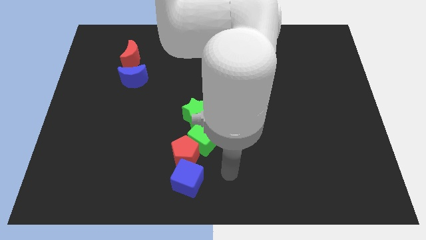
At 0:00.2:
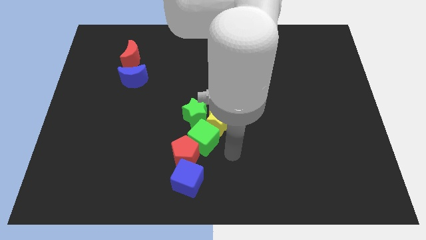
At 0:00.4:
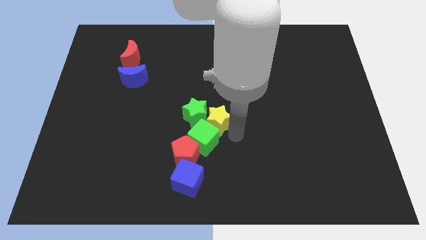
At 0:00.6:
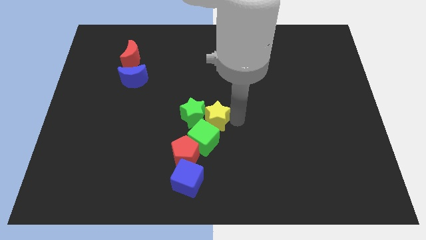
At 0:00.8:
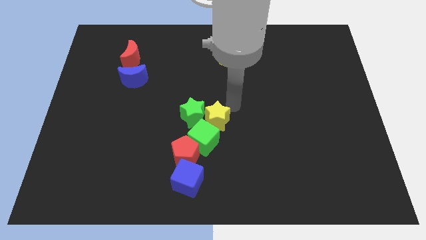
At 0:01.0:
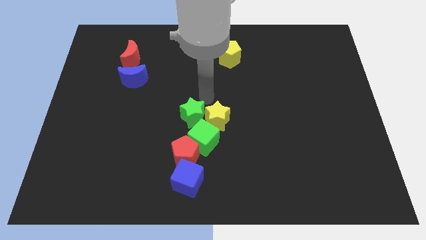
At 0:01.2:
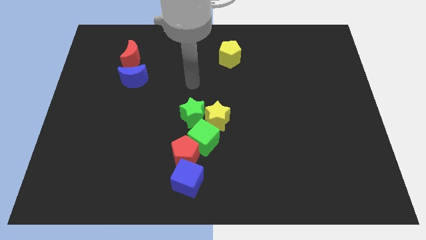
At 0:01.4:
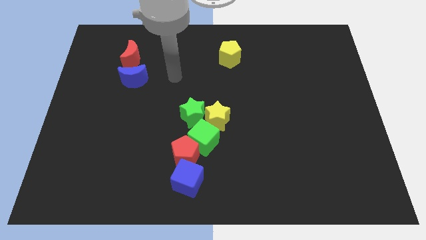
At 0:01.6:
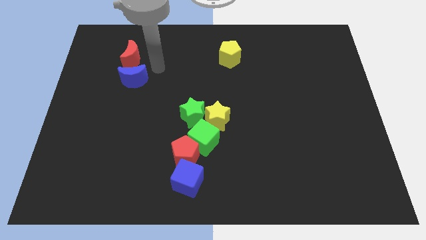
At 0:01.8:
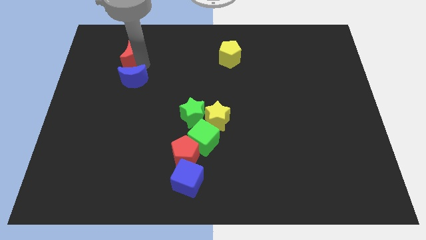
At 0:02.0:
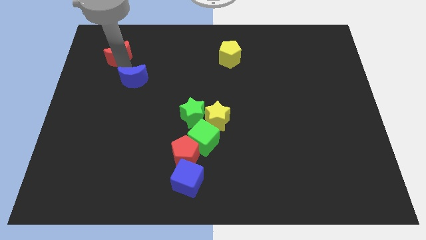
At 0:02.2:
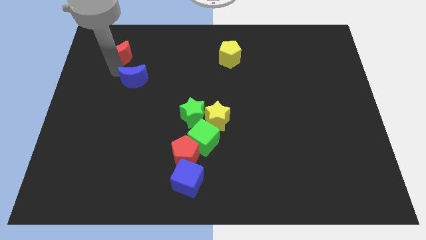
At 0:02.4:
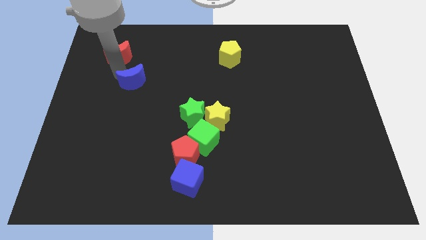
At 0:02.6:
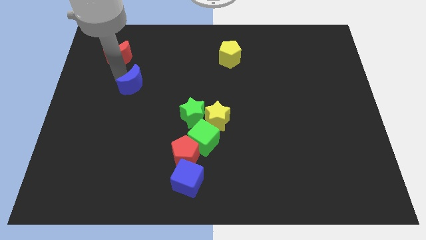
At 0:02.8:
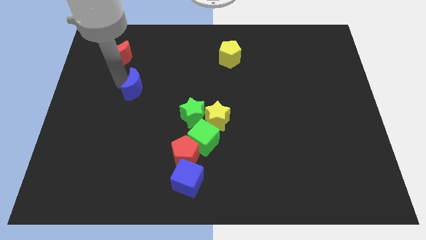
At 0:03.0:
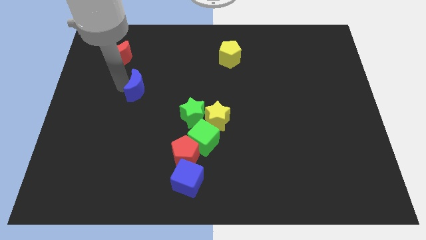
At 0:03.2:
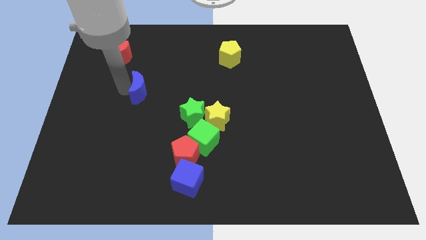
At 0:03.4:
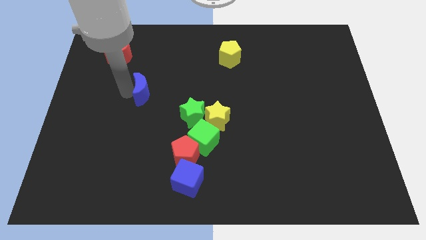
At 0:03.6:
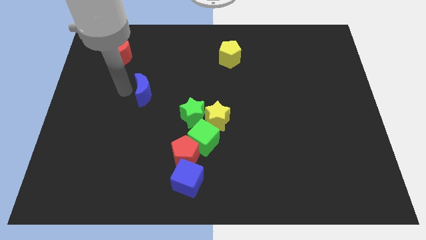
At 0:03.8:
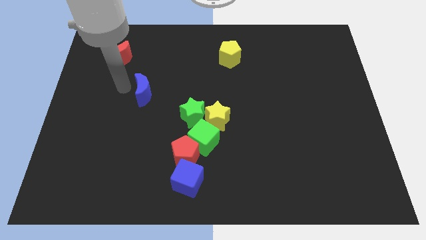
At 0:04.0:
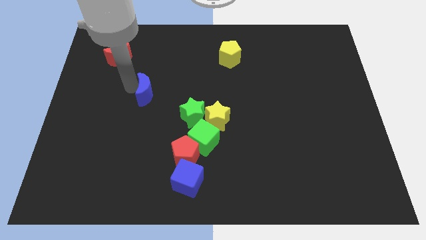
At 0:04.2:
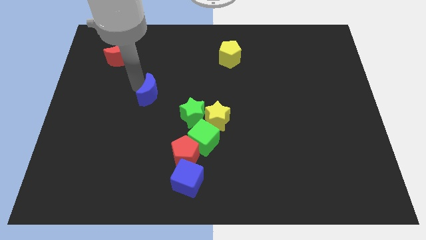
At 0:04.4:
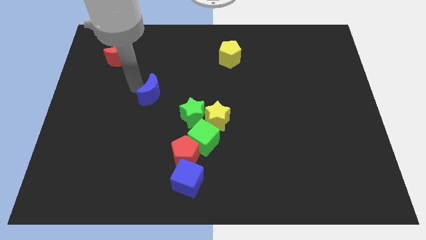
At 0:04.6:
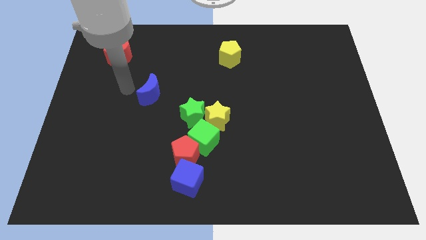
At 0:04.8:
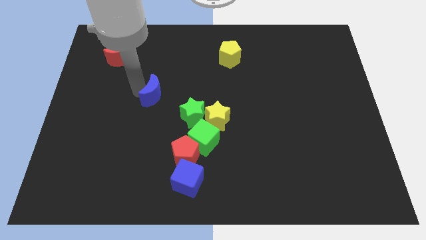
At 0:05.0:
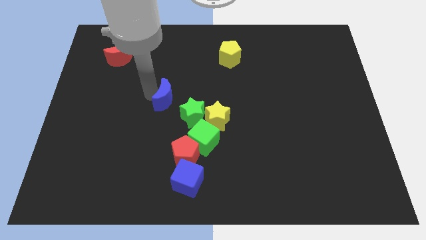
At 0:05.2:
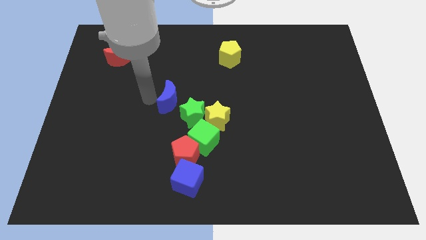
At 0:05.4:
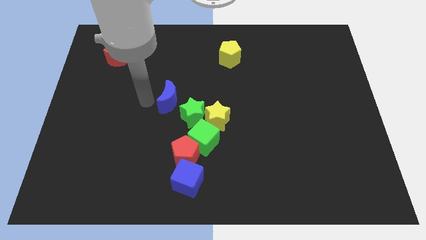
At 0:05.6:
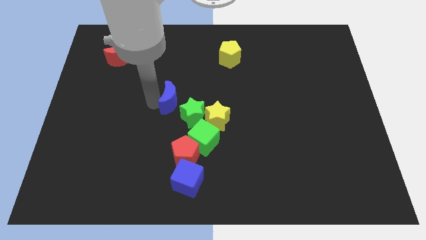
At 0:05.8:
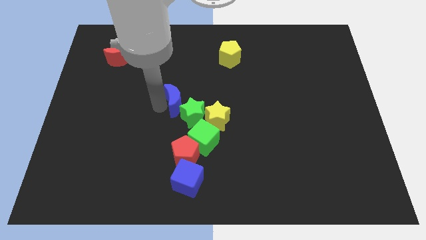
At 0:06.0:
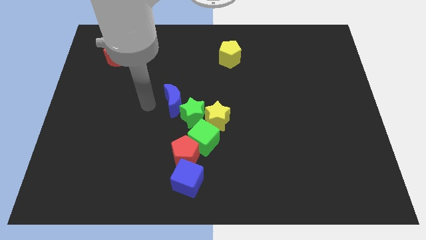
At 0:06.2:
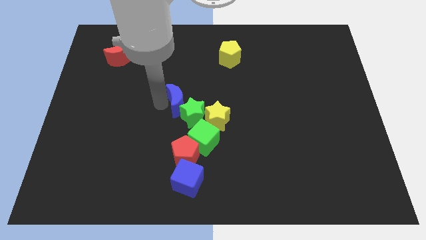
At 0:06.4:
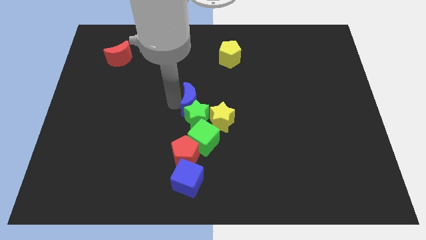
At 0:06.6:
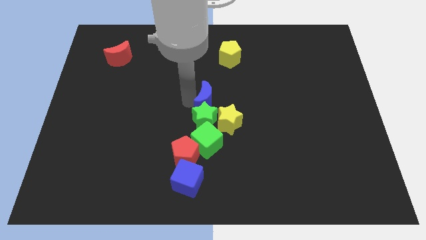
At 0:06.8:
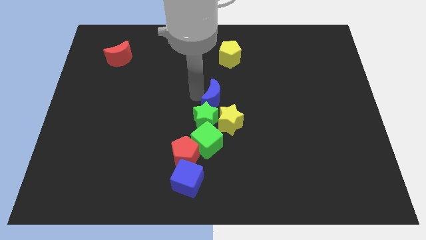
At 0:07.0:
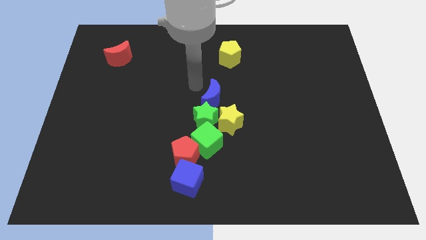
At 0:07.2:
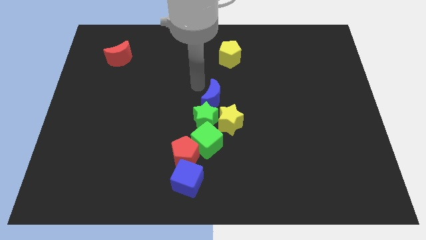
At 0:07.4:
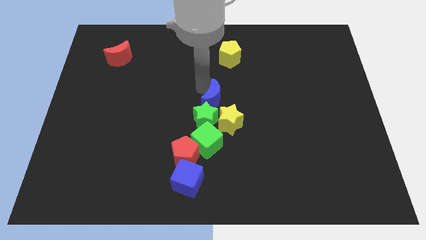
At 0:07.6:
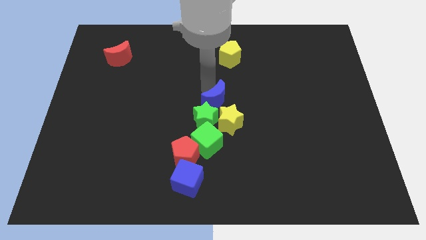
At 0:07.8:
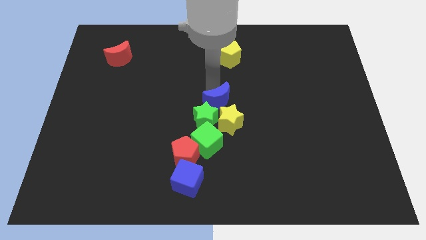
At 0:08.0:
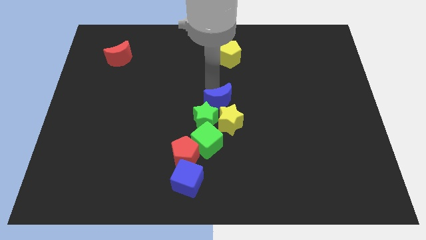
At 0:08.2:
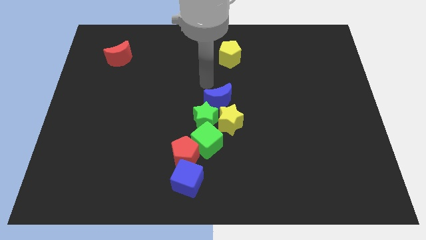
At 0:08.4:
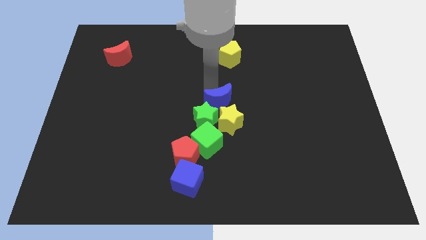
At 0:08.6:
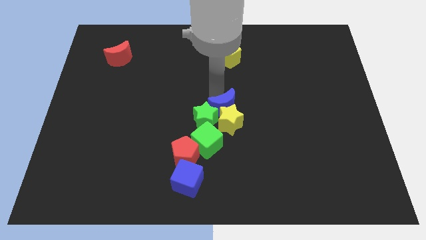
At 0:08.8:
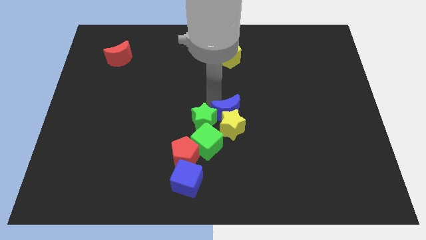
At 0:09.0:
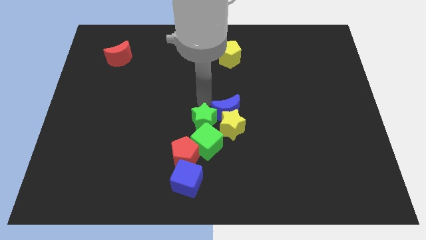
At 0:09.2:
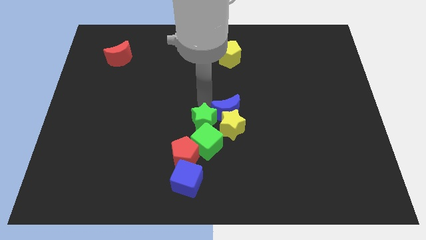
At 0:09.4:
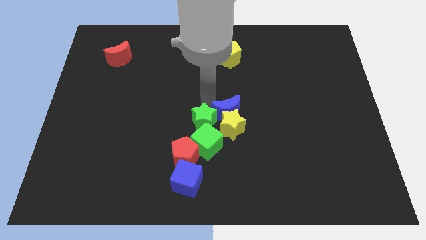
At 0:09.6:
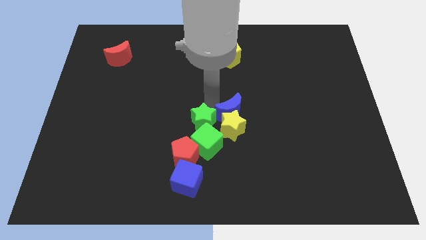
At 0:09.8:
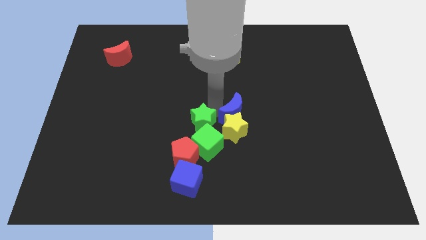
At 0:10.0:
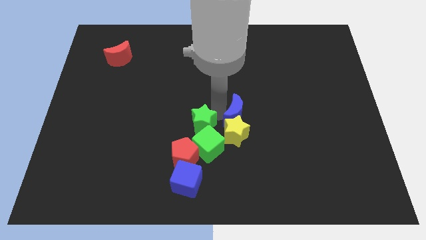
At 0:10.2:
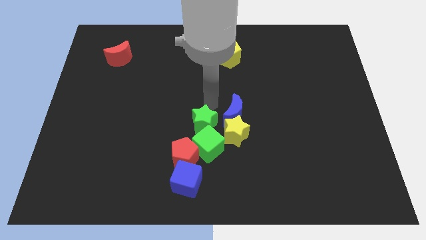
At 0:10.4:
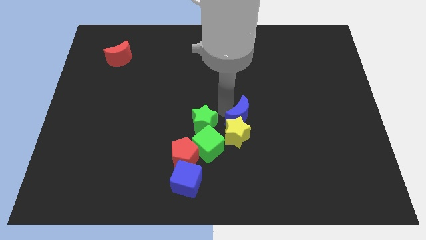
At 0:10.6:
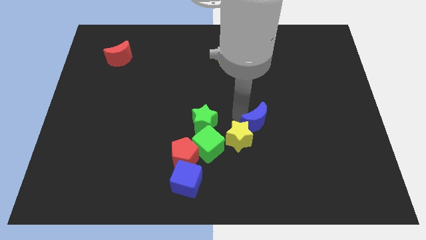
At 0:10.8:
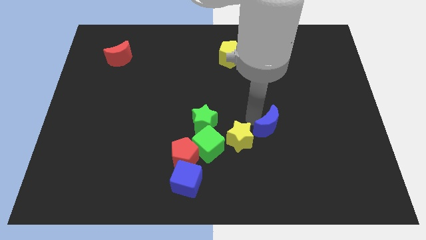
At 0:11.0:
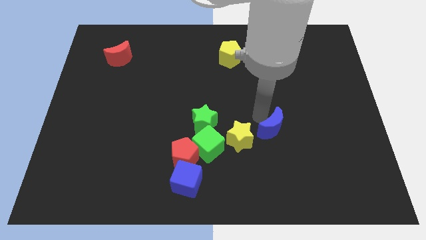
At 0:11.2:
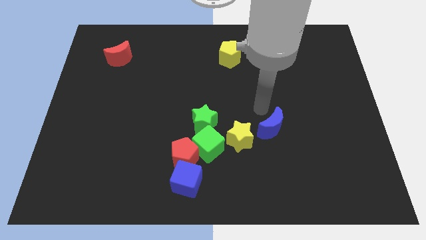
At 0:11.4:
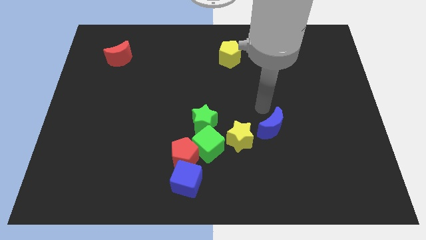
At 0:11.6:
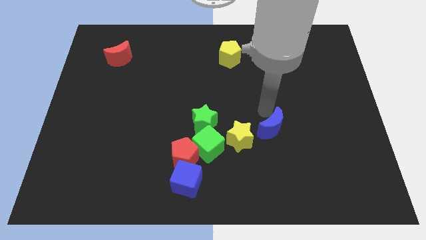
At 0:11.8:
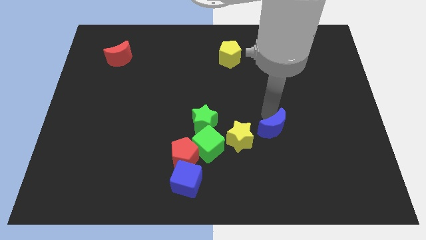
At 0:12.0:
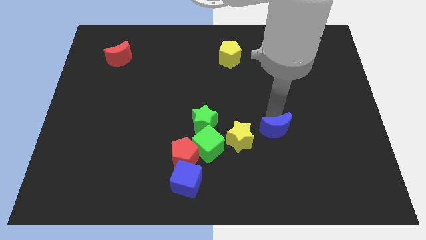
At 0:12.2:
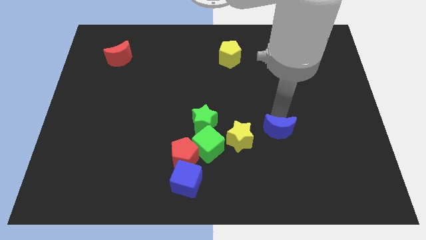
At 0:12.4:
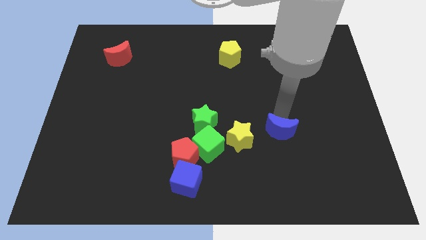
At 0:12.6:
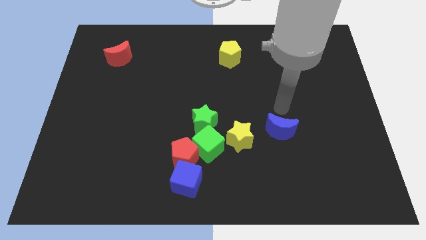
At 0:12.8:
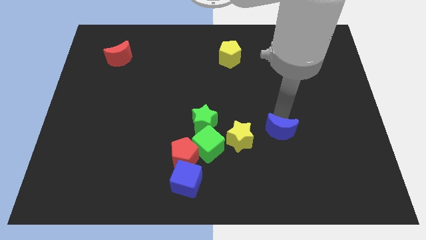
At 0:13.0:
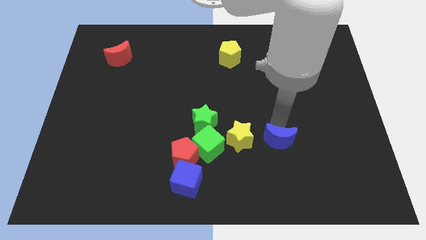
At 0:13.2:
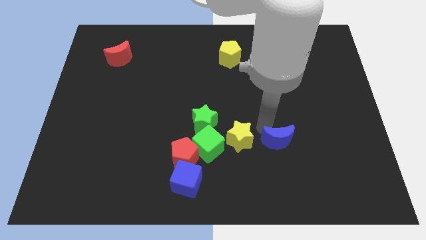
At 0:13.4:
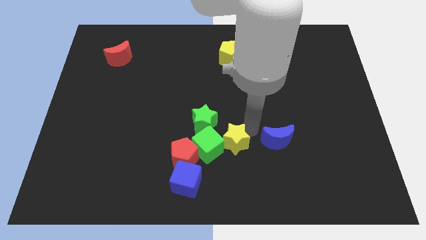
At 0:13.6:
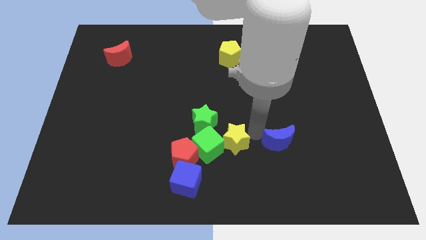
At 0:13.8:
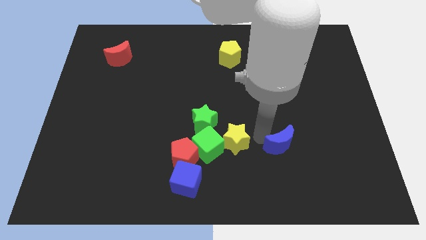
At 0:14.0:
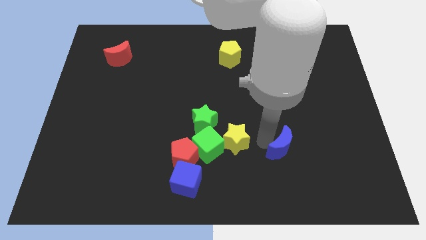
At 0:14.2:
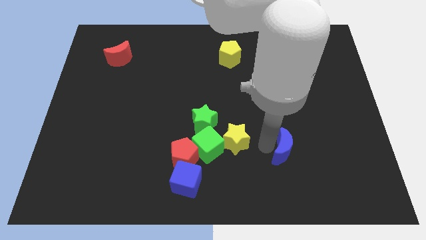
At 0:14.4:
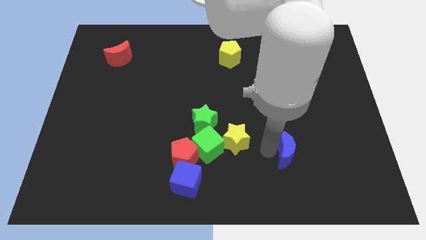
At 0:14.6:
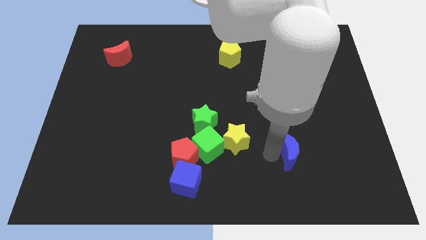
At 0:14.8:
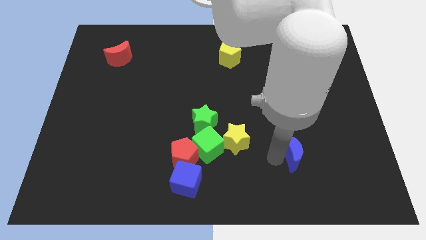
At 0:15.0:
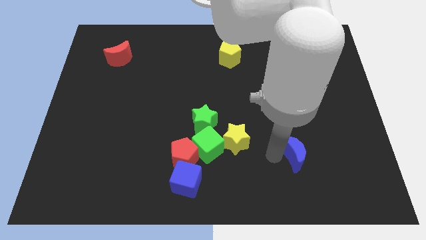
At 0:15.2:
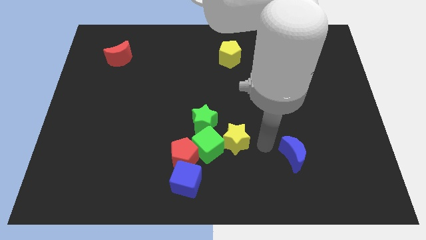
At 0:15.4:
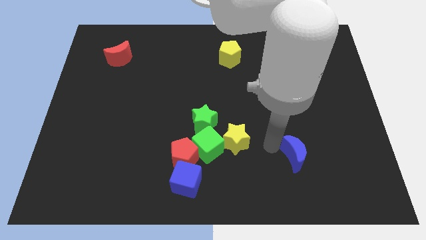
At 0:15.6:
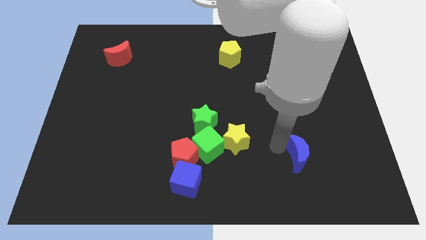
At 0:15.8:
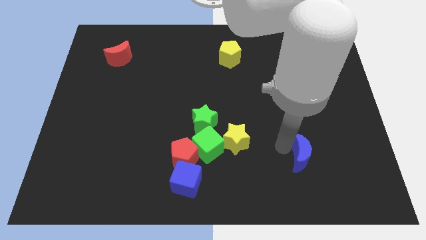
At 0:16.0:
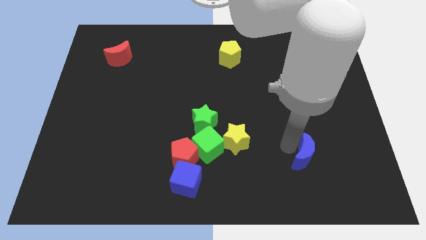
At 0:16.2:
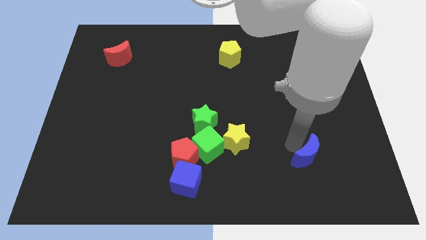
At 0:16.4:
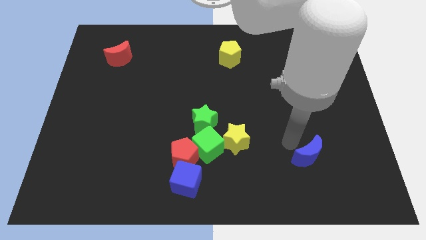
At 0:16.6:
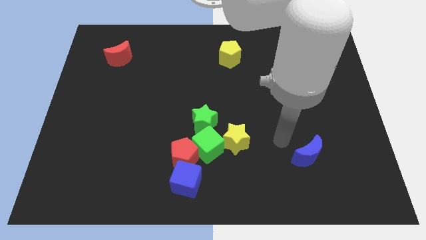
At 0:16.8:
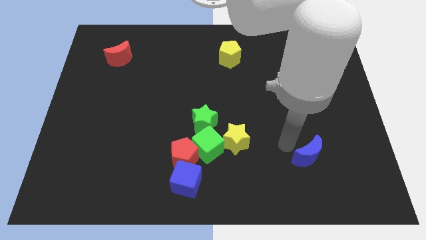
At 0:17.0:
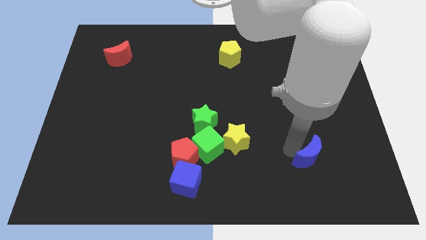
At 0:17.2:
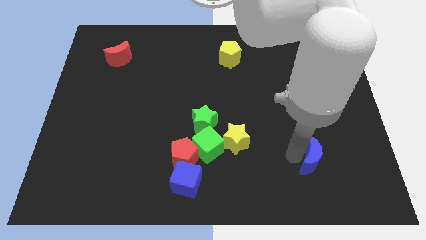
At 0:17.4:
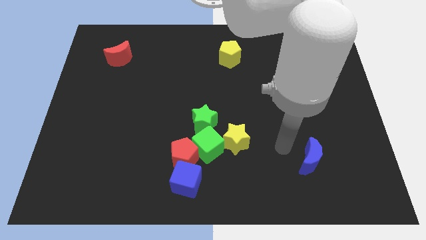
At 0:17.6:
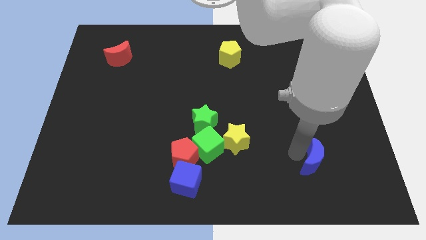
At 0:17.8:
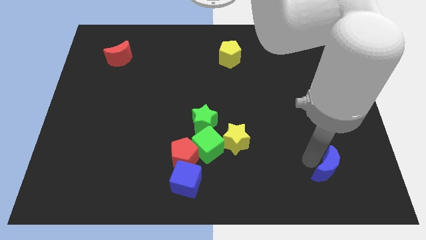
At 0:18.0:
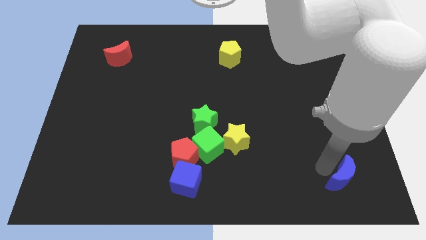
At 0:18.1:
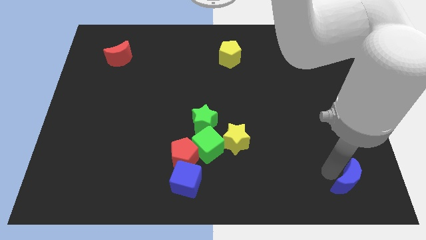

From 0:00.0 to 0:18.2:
push the blue moon to the bottom right of the board
